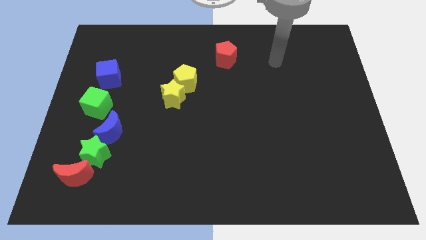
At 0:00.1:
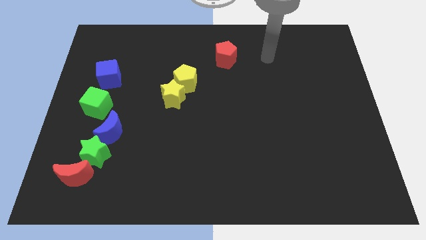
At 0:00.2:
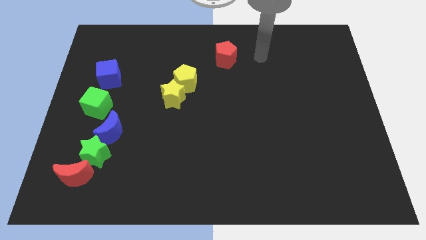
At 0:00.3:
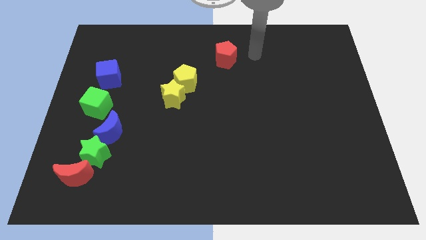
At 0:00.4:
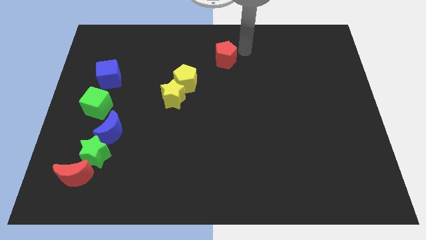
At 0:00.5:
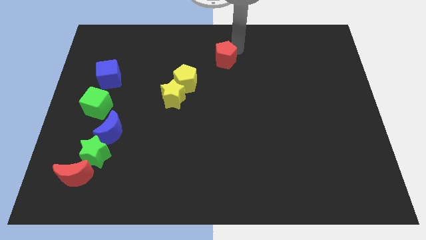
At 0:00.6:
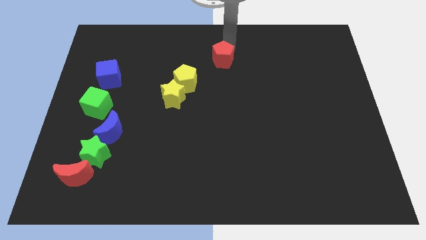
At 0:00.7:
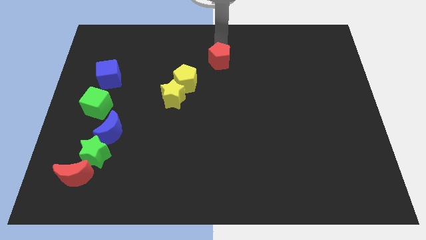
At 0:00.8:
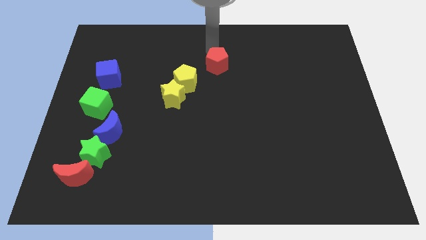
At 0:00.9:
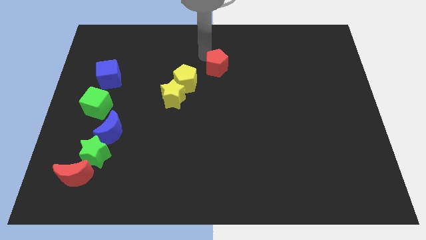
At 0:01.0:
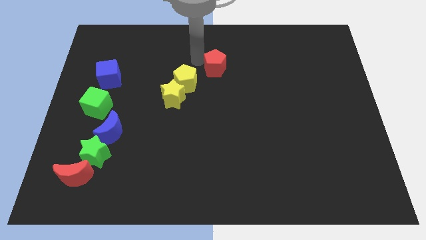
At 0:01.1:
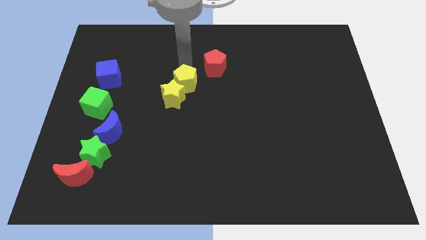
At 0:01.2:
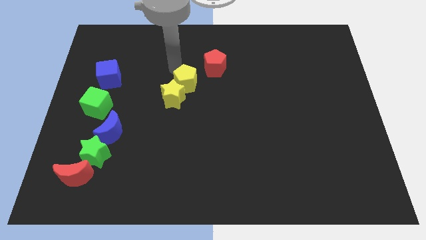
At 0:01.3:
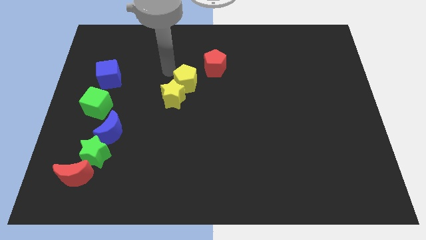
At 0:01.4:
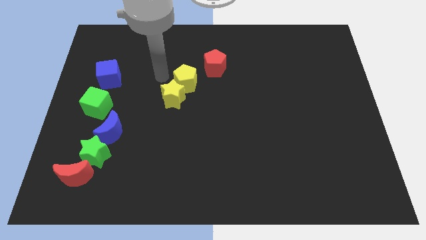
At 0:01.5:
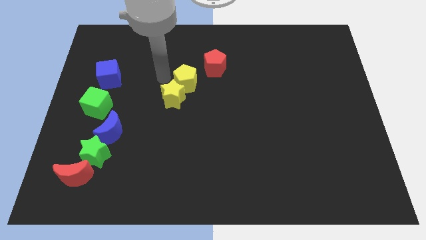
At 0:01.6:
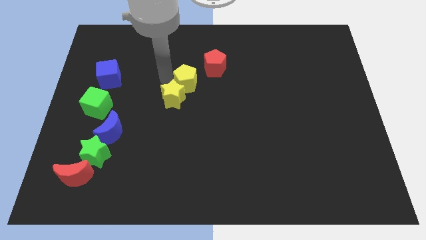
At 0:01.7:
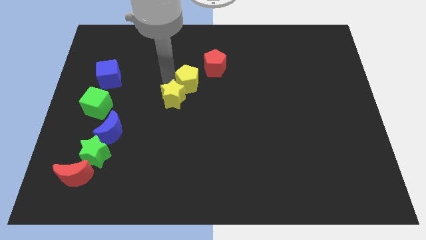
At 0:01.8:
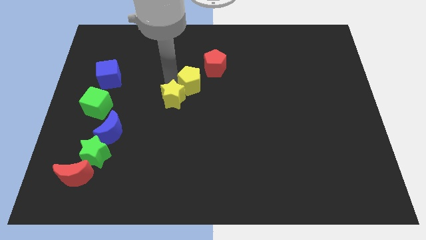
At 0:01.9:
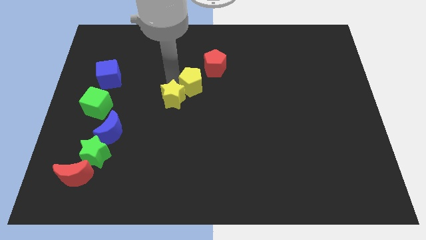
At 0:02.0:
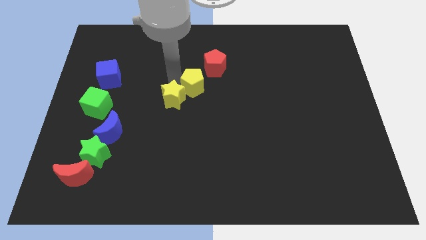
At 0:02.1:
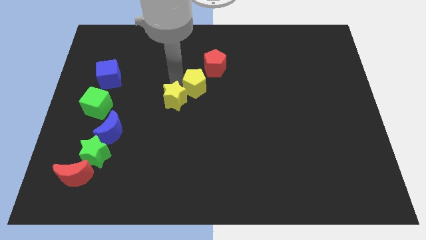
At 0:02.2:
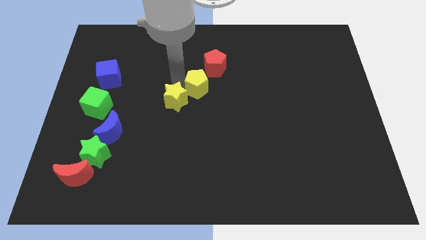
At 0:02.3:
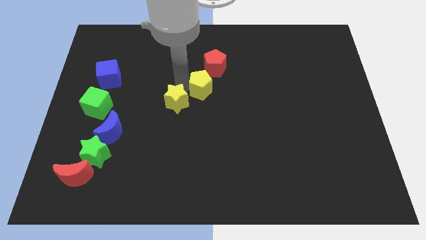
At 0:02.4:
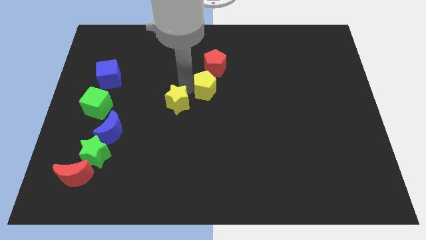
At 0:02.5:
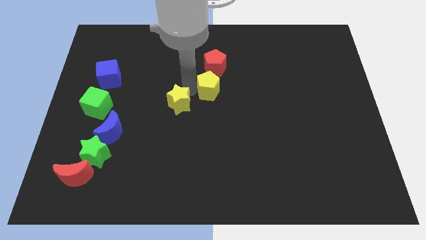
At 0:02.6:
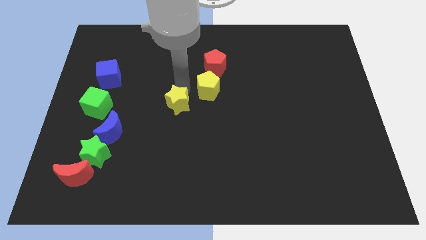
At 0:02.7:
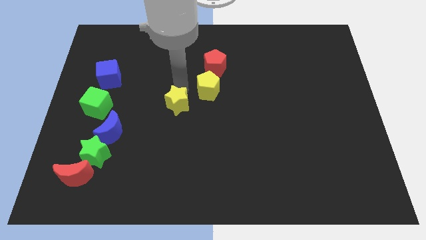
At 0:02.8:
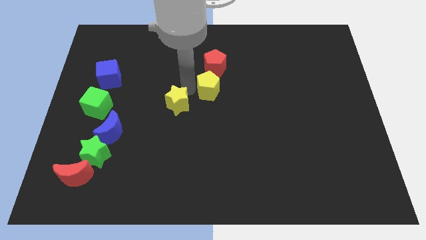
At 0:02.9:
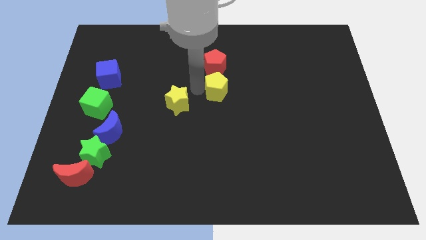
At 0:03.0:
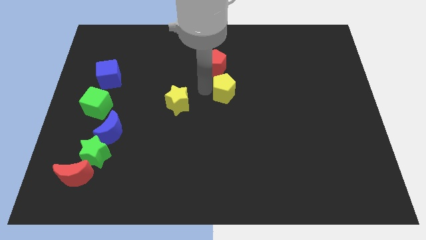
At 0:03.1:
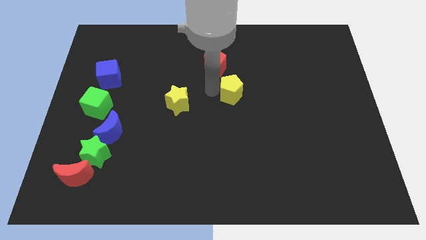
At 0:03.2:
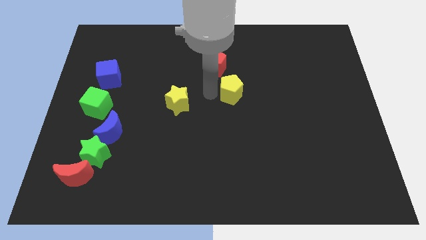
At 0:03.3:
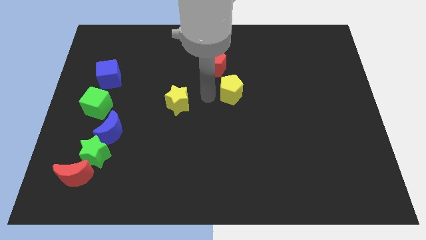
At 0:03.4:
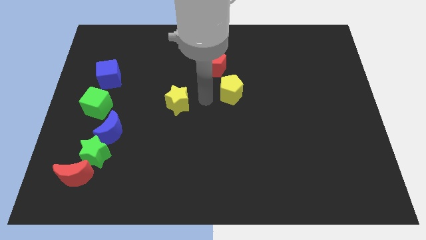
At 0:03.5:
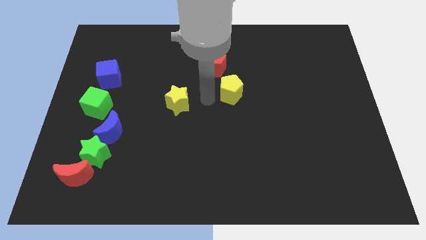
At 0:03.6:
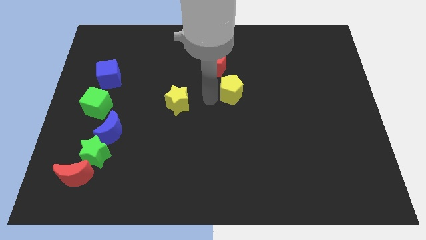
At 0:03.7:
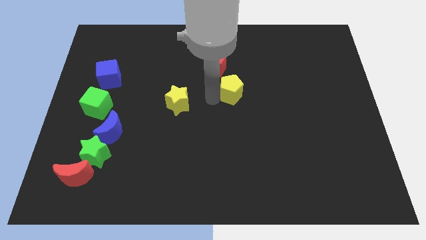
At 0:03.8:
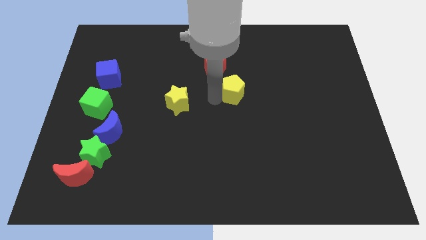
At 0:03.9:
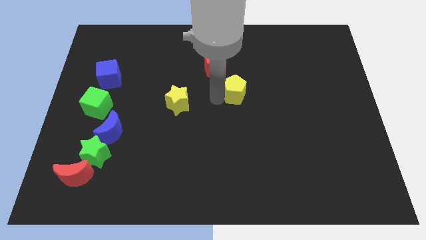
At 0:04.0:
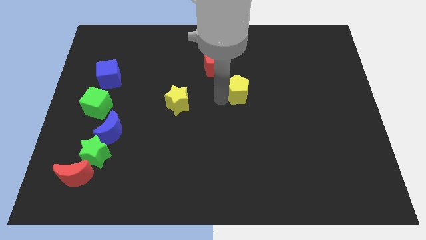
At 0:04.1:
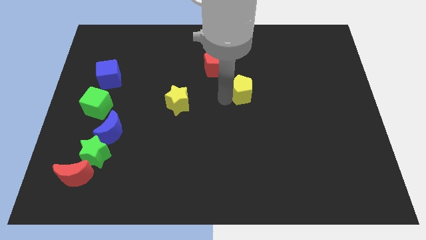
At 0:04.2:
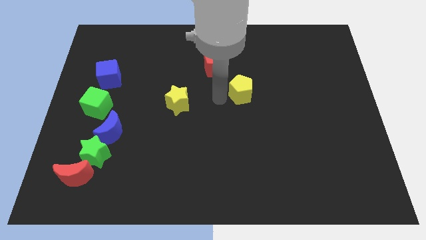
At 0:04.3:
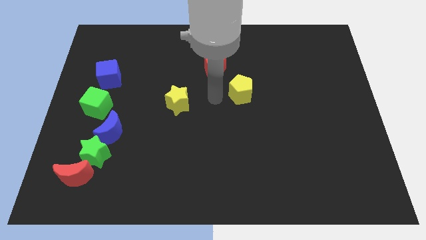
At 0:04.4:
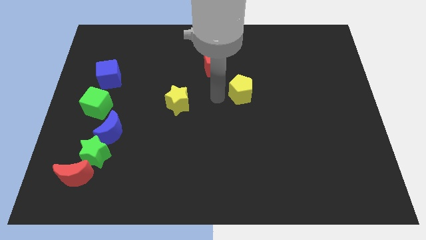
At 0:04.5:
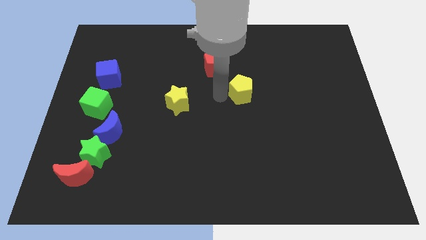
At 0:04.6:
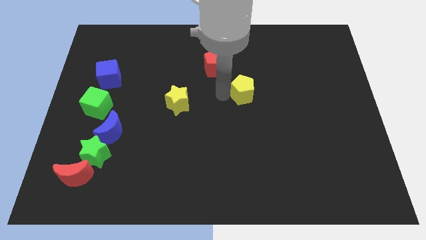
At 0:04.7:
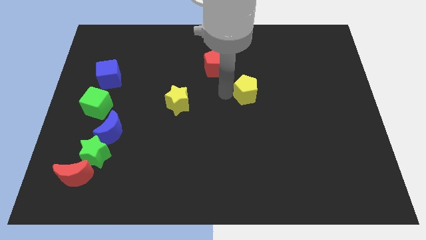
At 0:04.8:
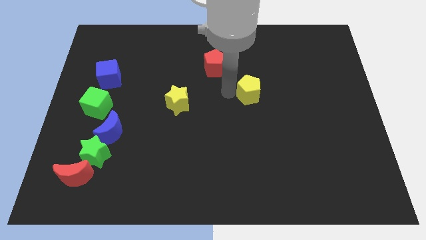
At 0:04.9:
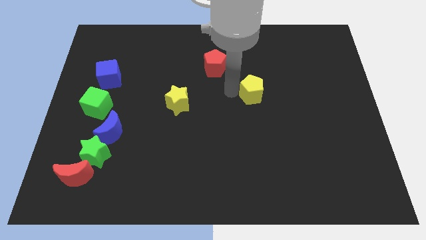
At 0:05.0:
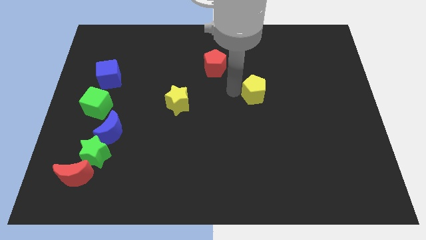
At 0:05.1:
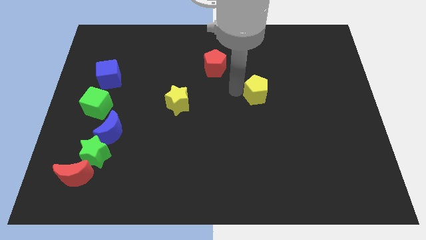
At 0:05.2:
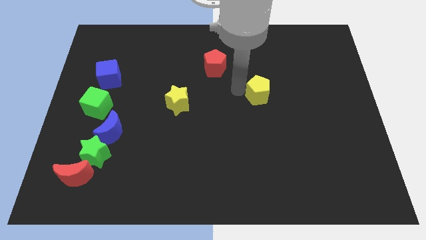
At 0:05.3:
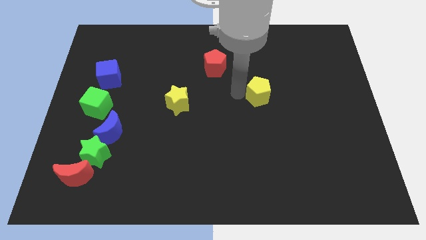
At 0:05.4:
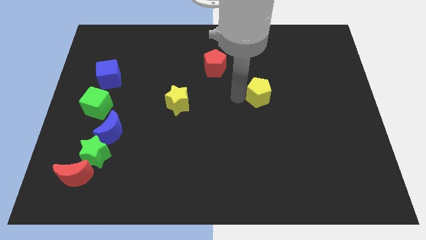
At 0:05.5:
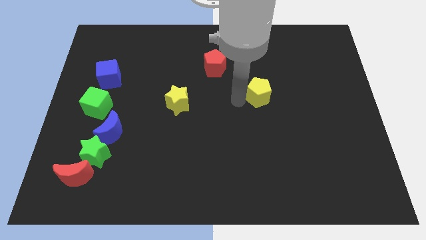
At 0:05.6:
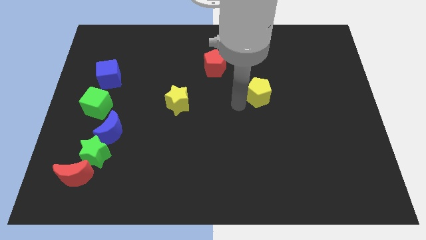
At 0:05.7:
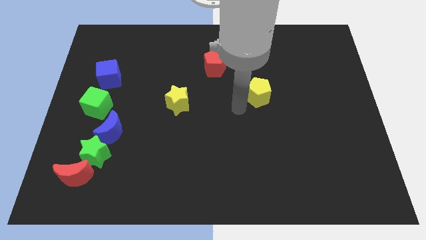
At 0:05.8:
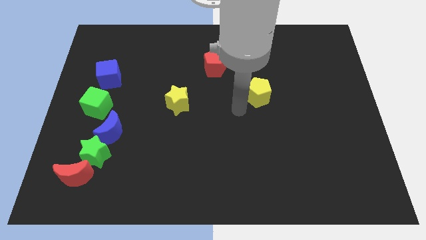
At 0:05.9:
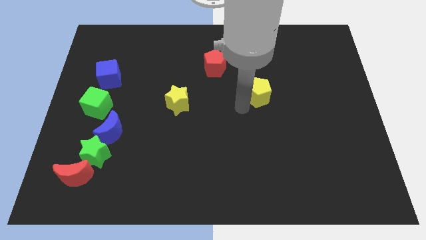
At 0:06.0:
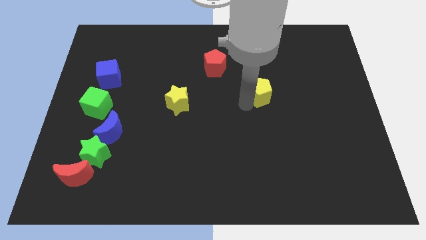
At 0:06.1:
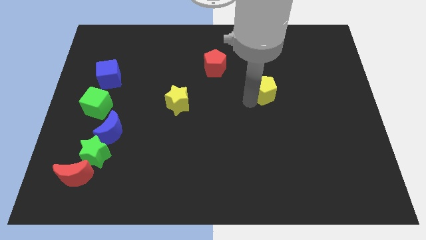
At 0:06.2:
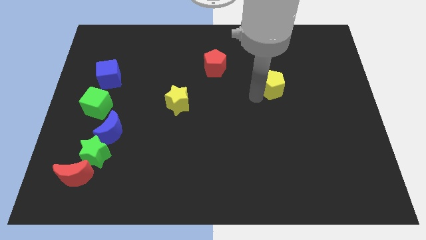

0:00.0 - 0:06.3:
move the yellow pentagon to the right

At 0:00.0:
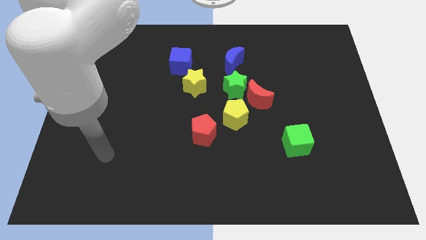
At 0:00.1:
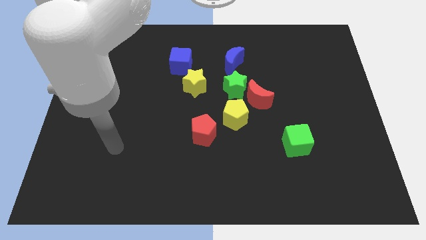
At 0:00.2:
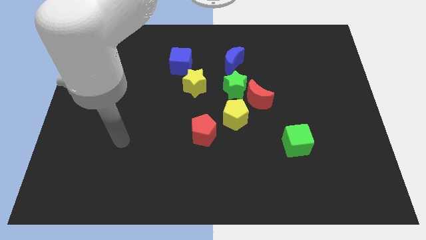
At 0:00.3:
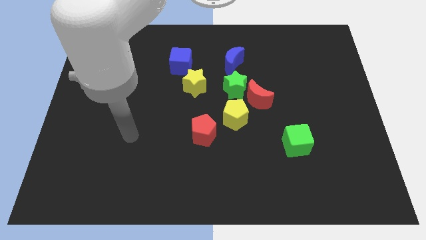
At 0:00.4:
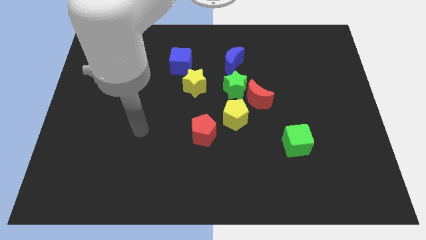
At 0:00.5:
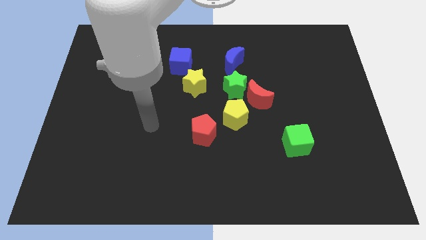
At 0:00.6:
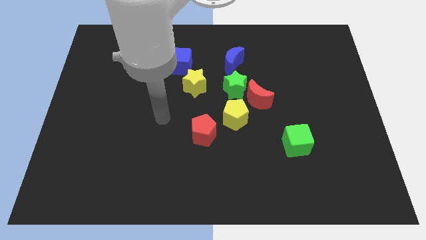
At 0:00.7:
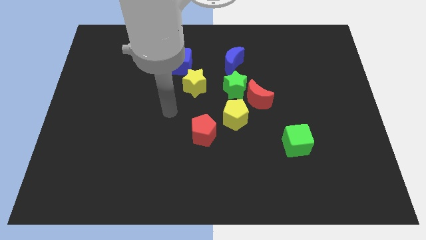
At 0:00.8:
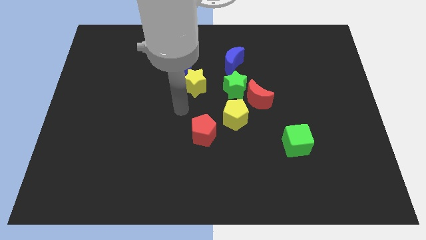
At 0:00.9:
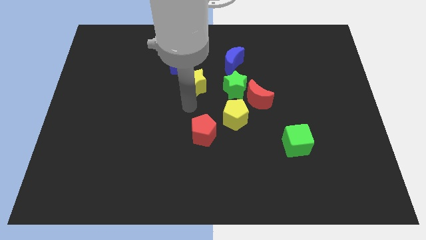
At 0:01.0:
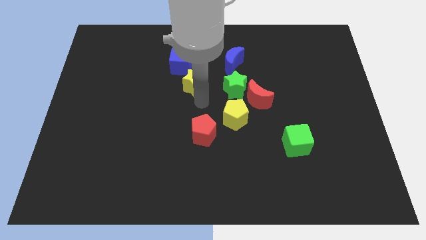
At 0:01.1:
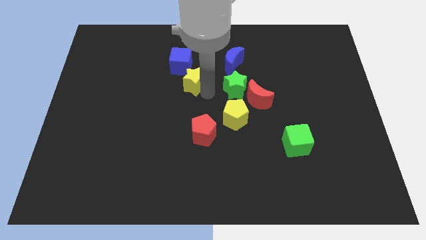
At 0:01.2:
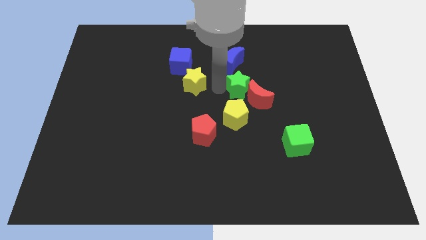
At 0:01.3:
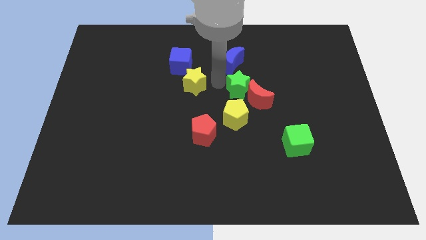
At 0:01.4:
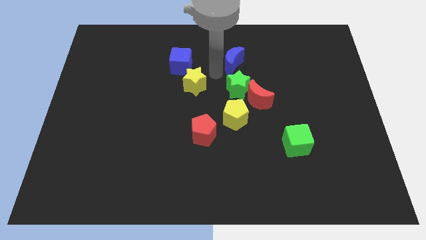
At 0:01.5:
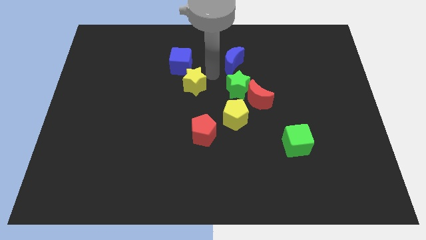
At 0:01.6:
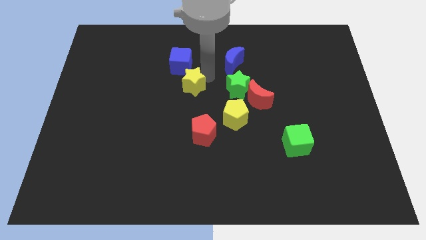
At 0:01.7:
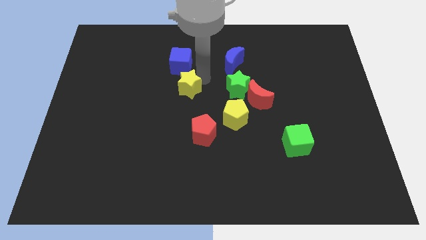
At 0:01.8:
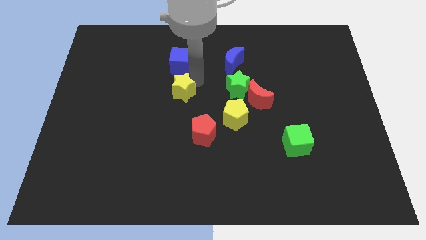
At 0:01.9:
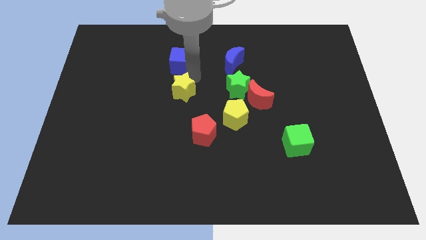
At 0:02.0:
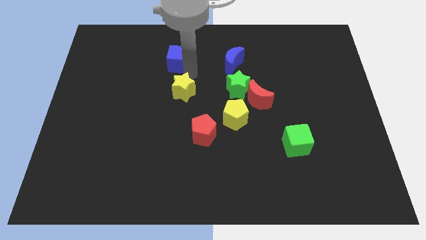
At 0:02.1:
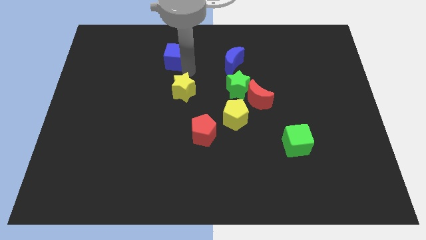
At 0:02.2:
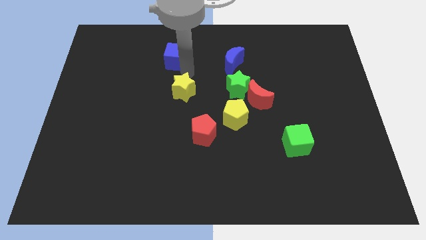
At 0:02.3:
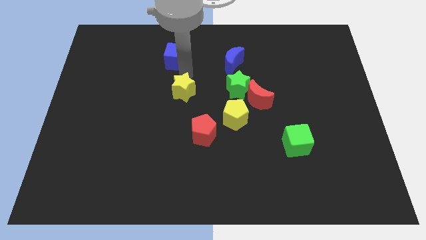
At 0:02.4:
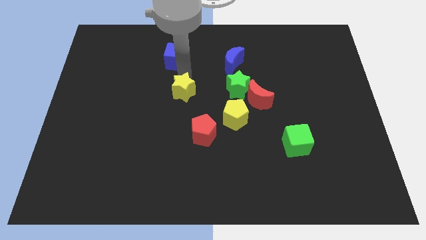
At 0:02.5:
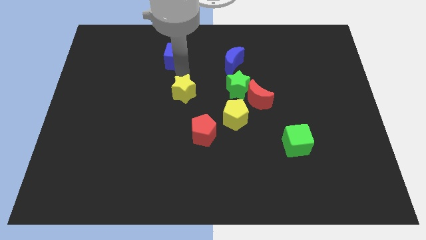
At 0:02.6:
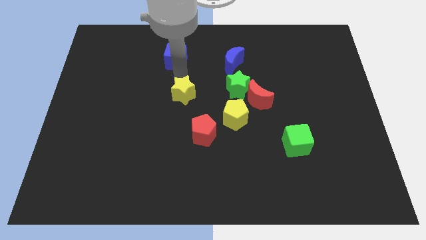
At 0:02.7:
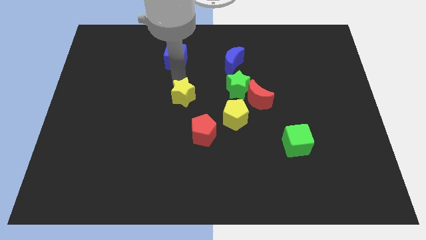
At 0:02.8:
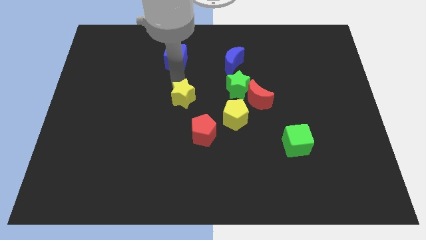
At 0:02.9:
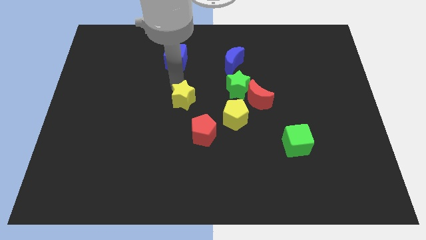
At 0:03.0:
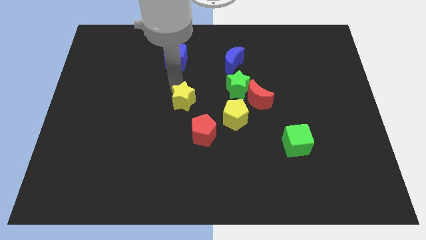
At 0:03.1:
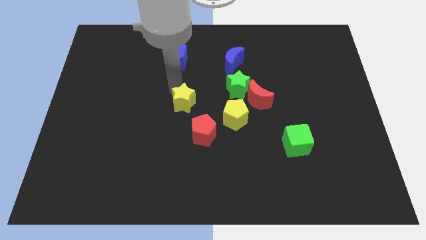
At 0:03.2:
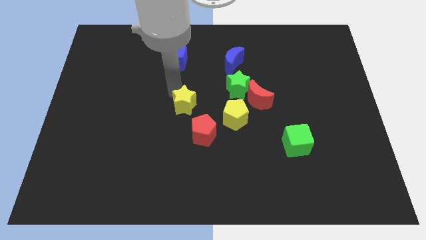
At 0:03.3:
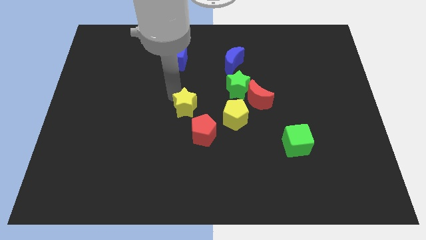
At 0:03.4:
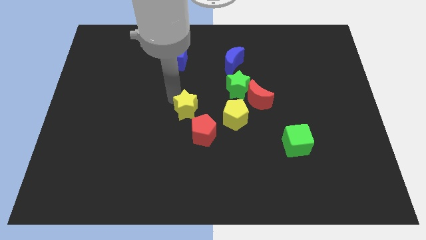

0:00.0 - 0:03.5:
push the yellow star down a bit
